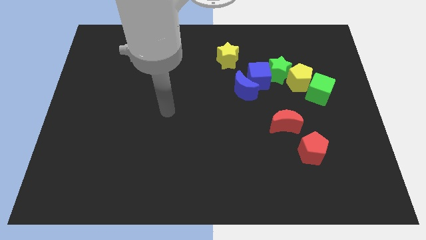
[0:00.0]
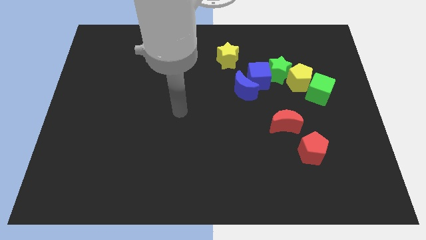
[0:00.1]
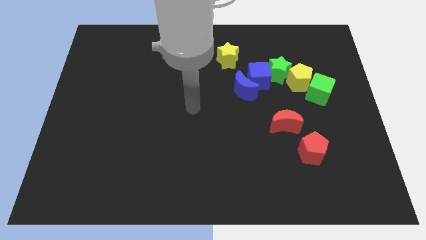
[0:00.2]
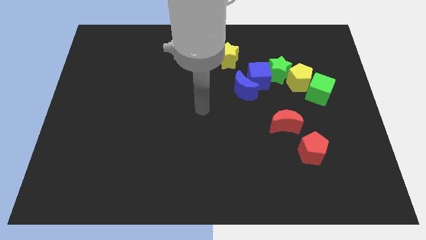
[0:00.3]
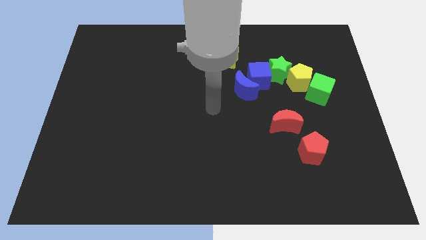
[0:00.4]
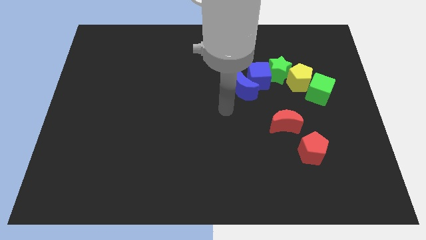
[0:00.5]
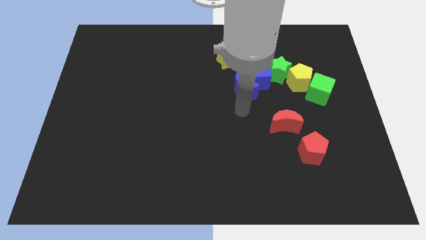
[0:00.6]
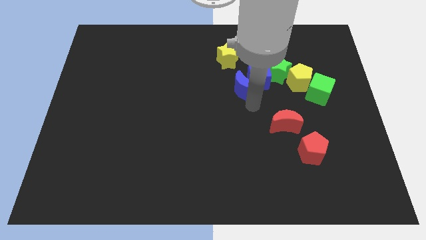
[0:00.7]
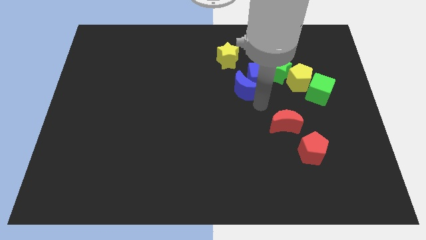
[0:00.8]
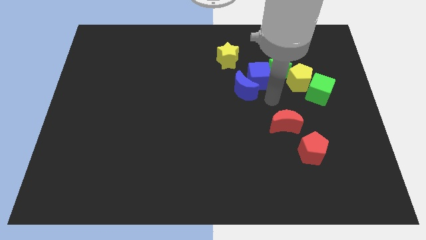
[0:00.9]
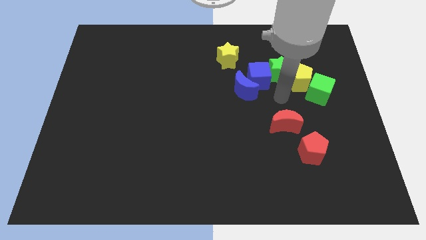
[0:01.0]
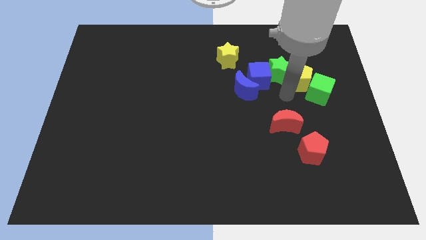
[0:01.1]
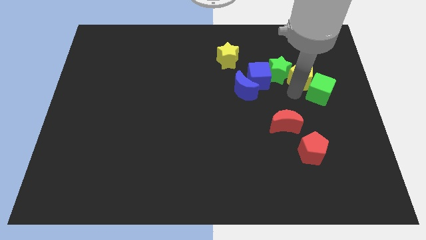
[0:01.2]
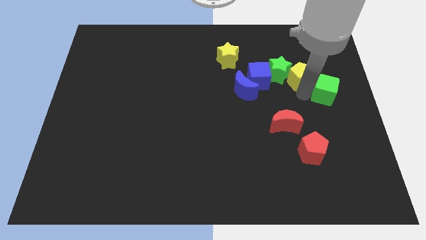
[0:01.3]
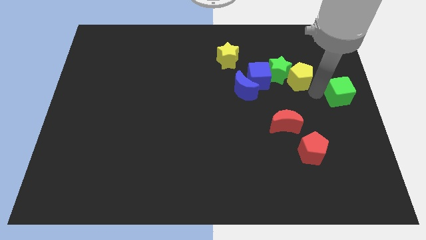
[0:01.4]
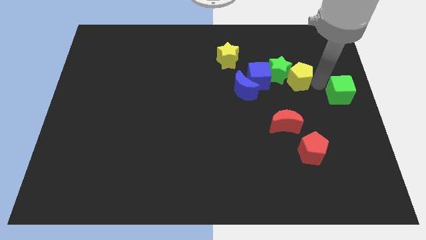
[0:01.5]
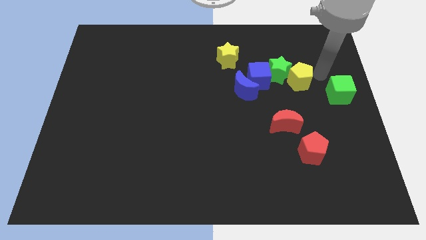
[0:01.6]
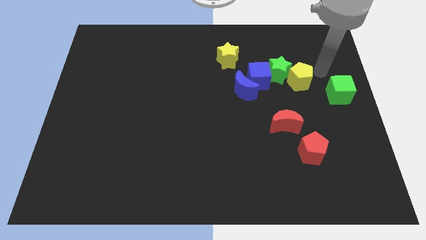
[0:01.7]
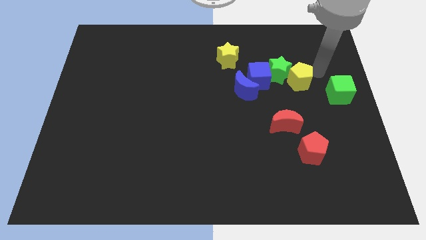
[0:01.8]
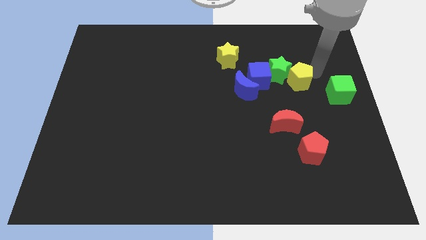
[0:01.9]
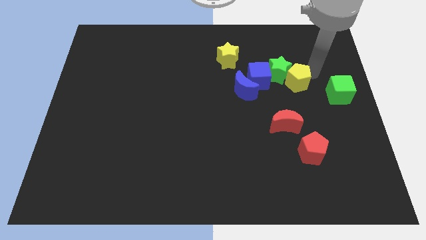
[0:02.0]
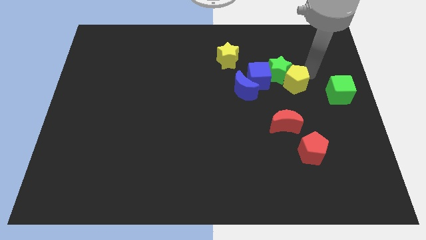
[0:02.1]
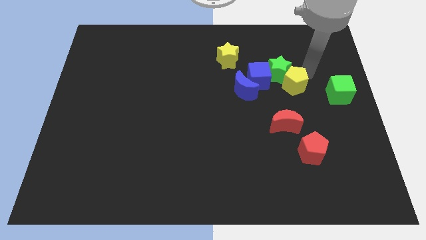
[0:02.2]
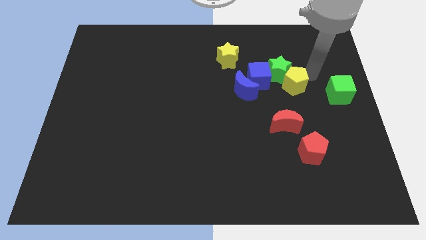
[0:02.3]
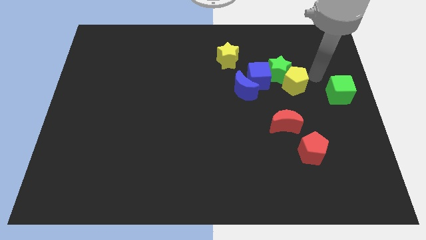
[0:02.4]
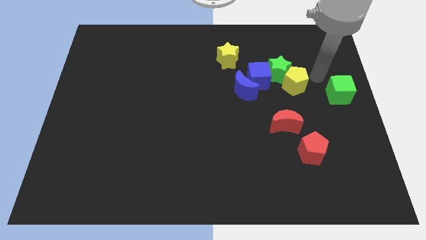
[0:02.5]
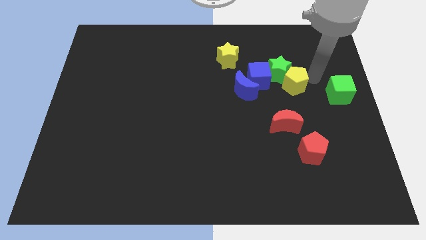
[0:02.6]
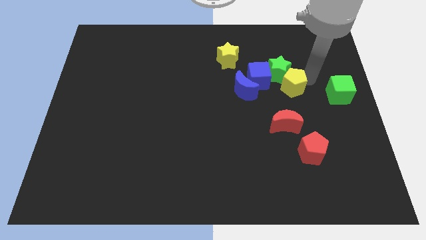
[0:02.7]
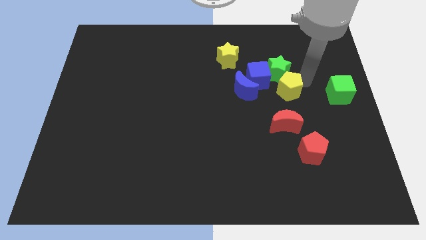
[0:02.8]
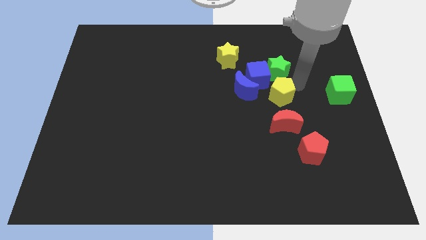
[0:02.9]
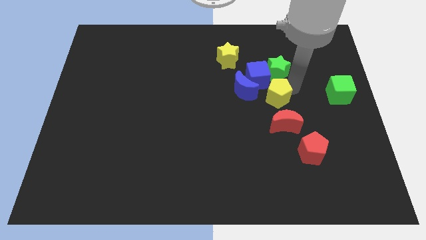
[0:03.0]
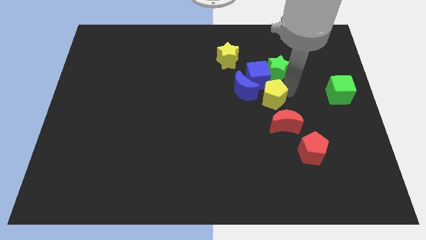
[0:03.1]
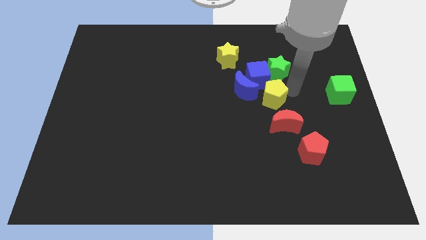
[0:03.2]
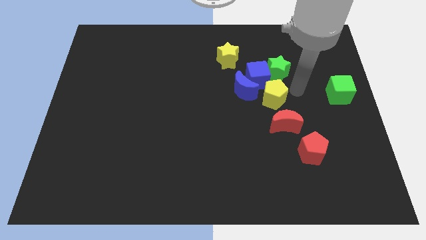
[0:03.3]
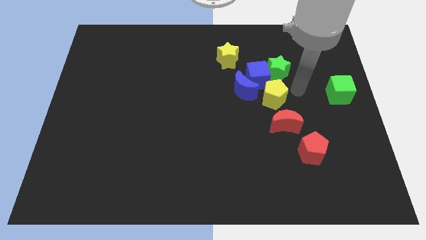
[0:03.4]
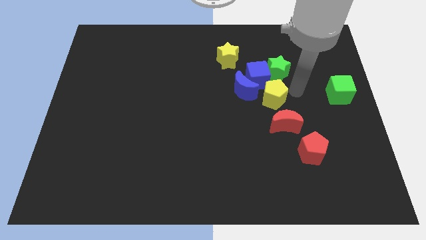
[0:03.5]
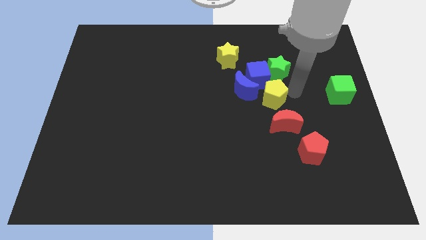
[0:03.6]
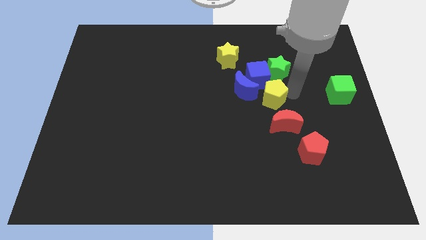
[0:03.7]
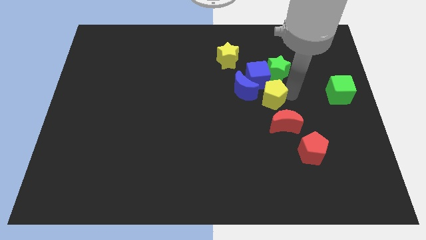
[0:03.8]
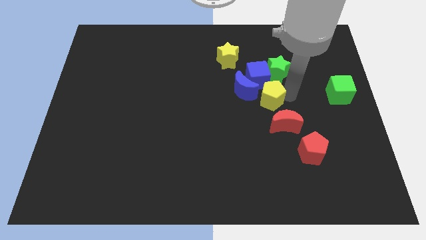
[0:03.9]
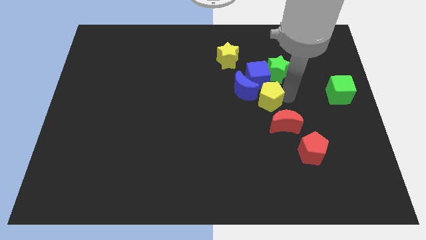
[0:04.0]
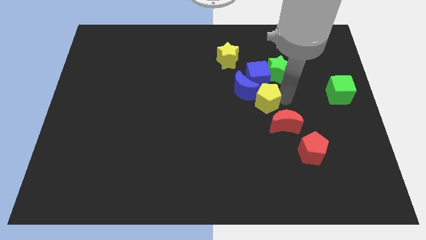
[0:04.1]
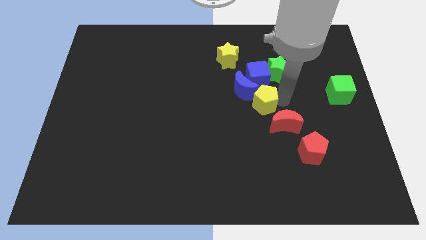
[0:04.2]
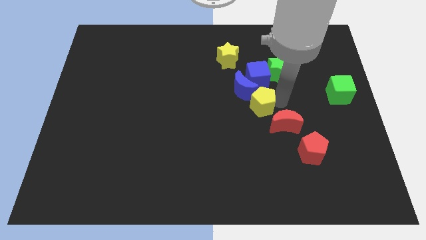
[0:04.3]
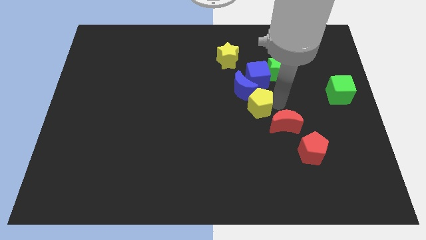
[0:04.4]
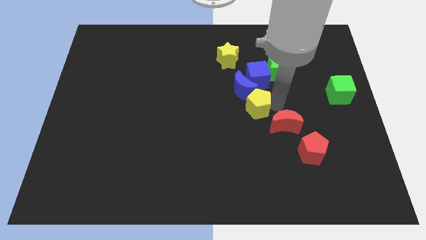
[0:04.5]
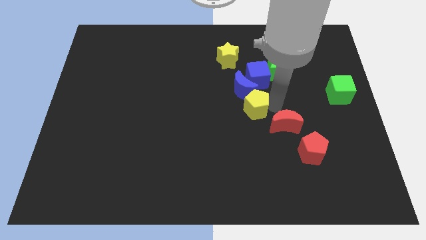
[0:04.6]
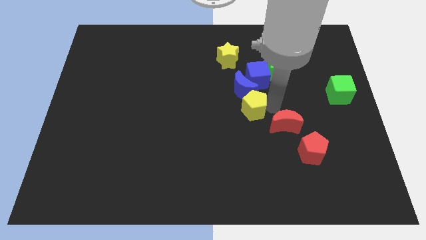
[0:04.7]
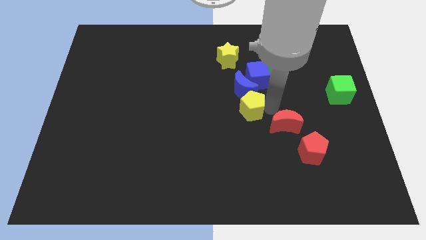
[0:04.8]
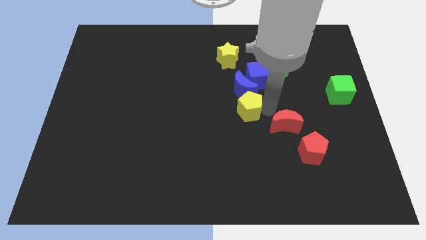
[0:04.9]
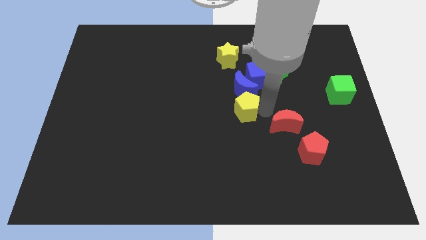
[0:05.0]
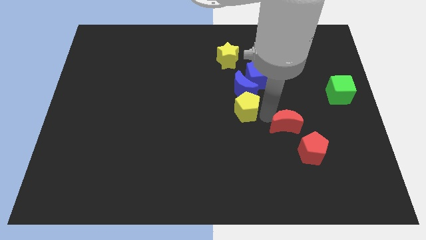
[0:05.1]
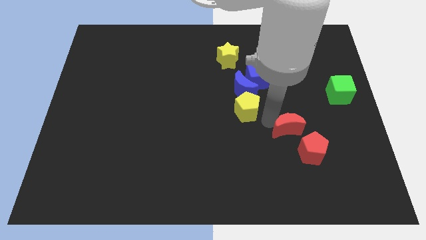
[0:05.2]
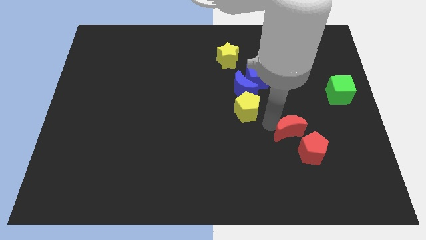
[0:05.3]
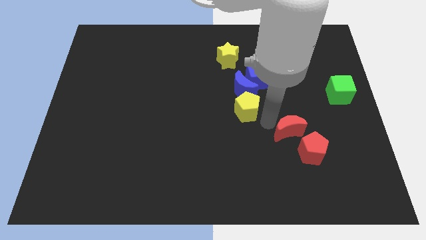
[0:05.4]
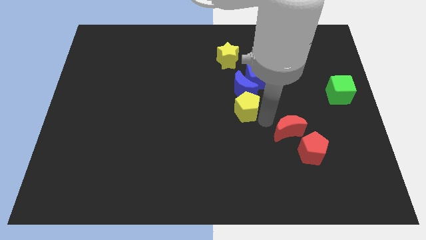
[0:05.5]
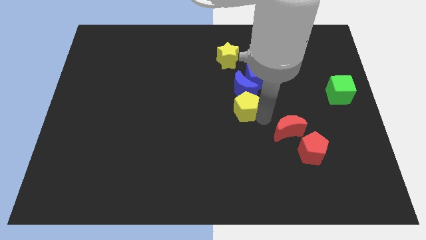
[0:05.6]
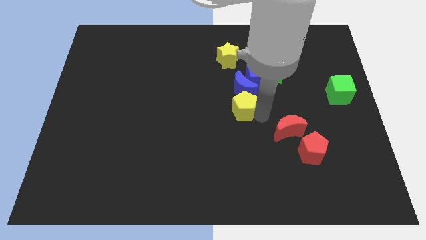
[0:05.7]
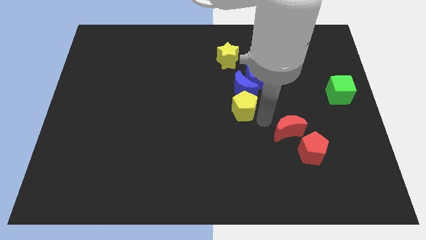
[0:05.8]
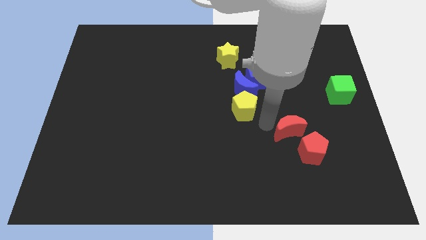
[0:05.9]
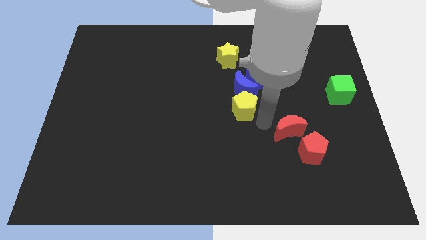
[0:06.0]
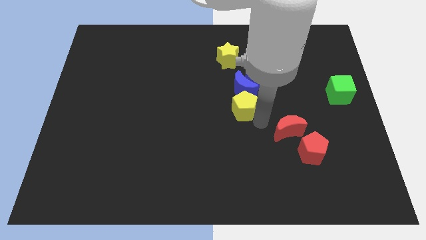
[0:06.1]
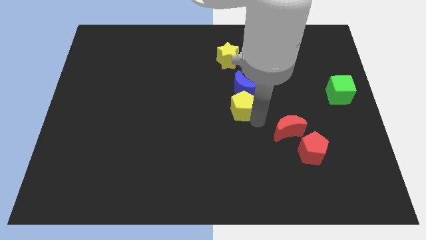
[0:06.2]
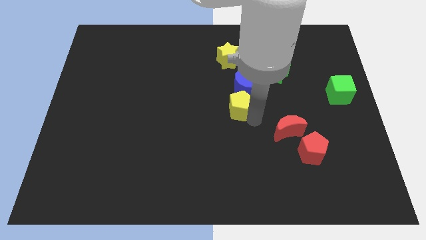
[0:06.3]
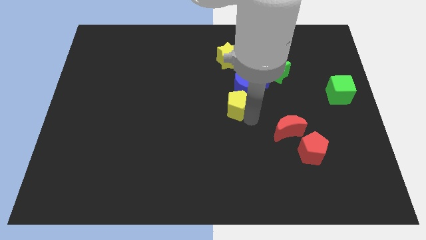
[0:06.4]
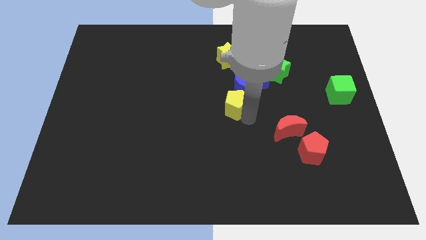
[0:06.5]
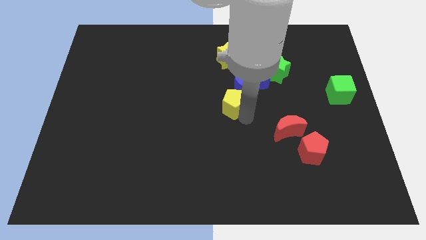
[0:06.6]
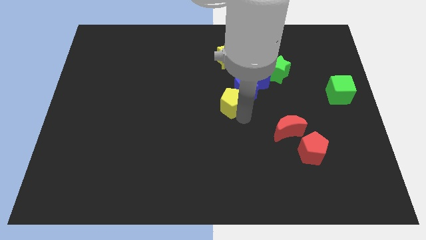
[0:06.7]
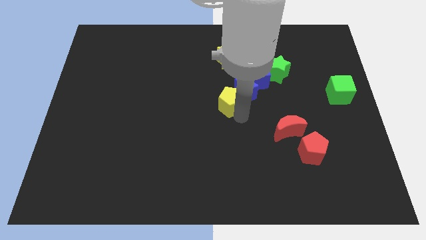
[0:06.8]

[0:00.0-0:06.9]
slide the yellow pentagon to the left of the blue moon
